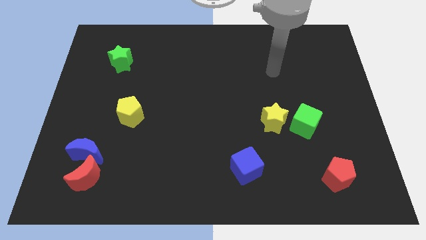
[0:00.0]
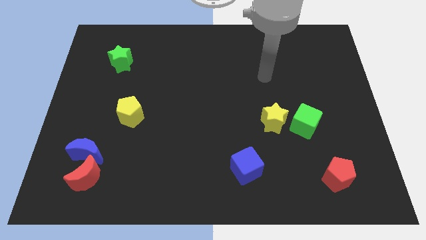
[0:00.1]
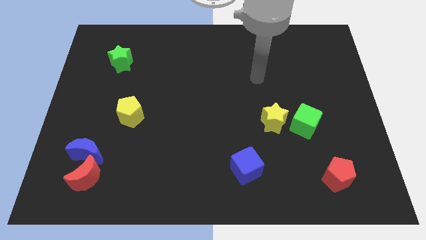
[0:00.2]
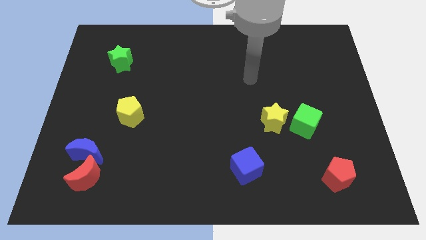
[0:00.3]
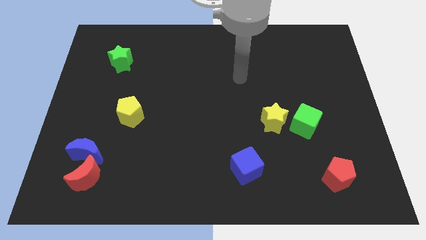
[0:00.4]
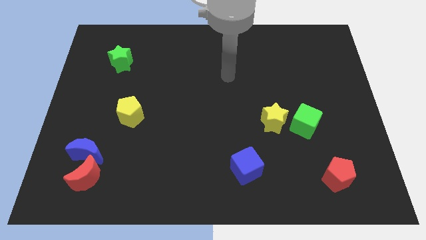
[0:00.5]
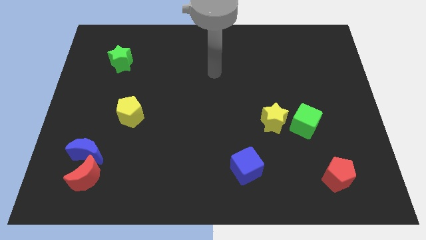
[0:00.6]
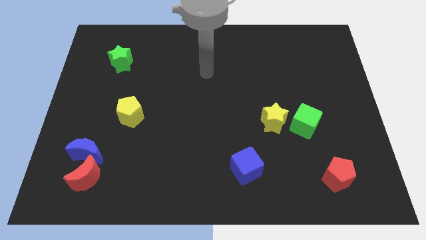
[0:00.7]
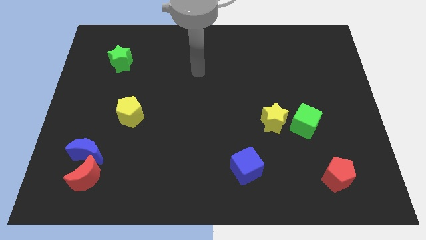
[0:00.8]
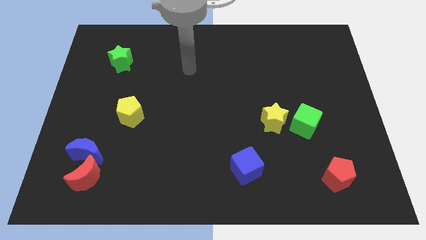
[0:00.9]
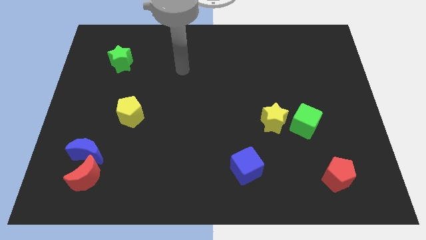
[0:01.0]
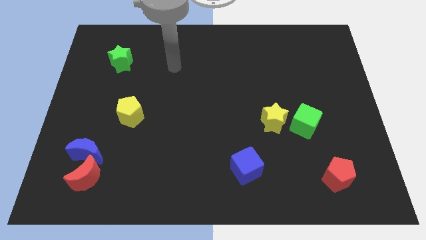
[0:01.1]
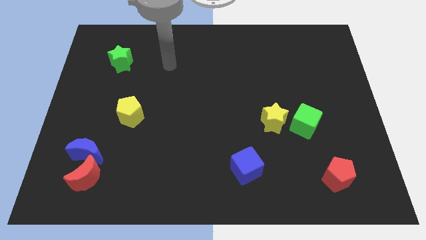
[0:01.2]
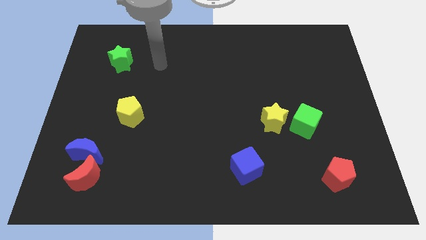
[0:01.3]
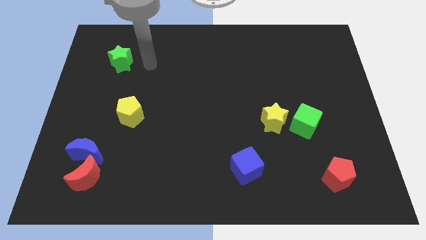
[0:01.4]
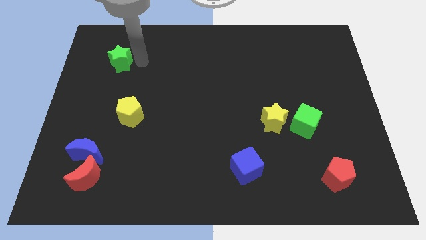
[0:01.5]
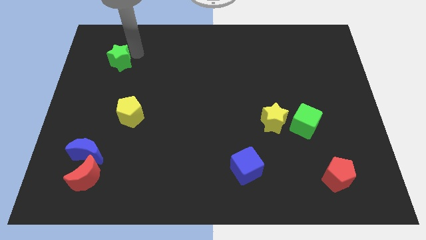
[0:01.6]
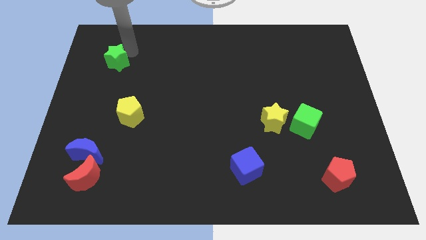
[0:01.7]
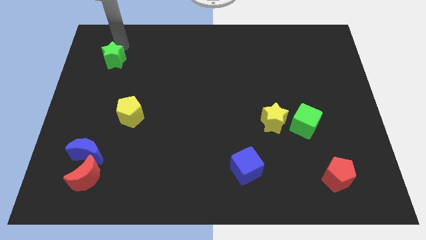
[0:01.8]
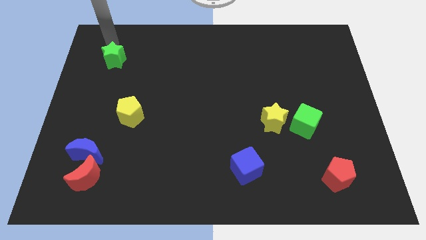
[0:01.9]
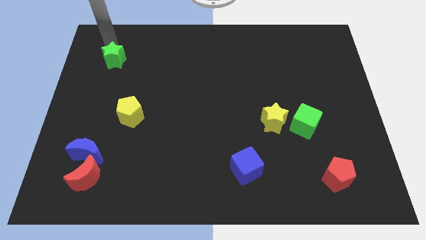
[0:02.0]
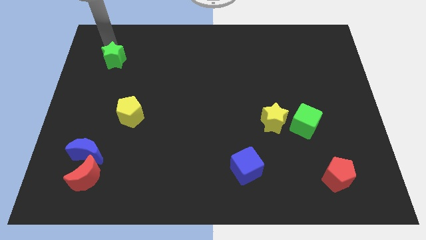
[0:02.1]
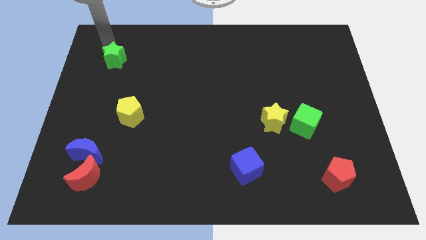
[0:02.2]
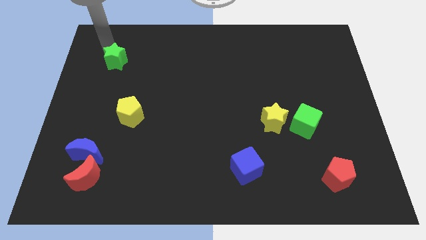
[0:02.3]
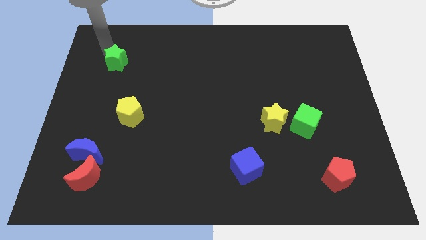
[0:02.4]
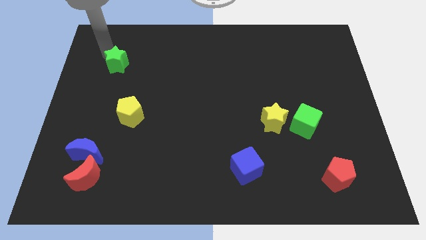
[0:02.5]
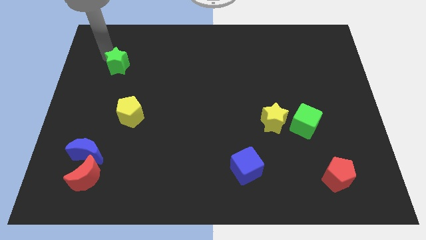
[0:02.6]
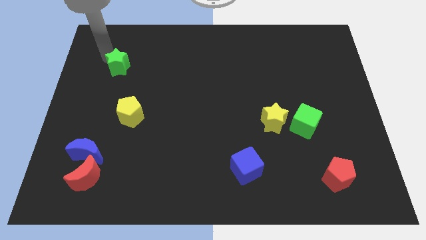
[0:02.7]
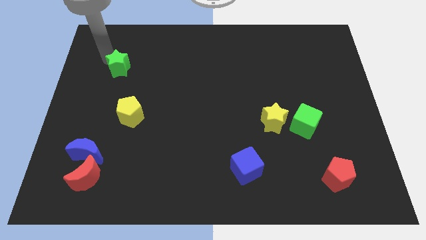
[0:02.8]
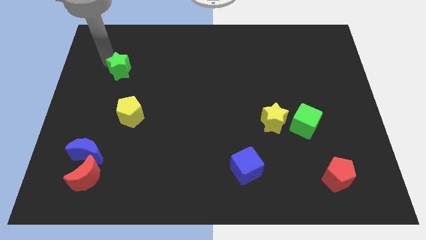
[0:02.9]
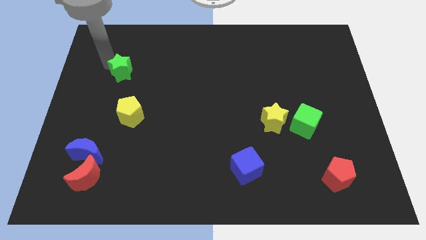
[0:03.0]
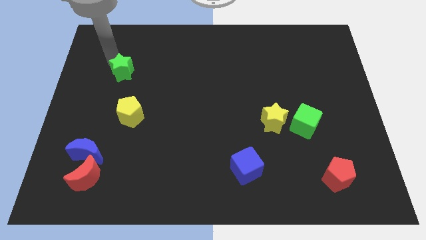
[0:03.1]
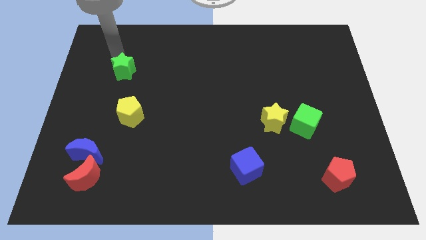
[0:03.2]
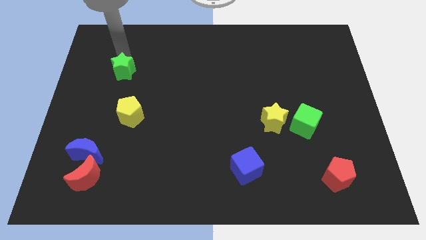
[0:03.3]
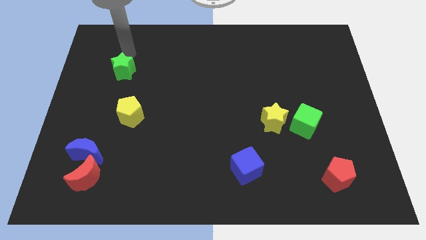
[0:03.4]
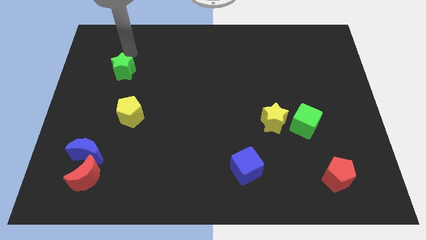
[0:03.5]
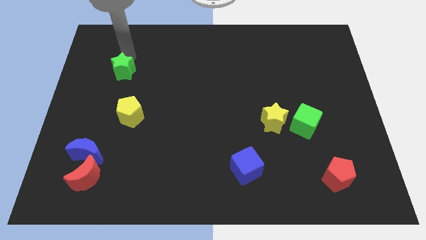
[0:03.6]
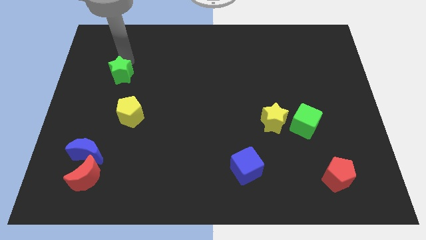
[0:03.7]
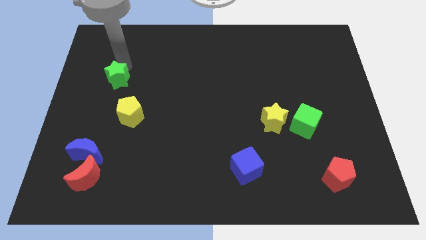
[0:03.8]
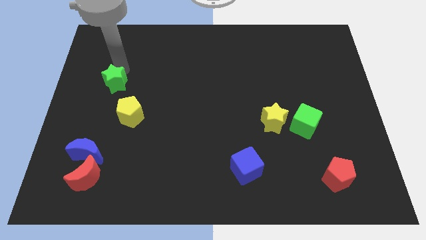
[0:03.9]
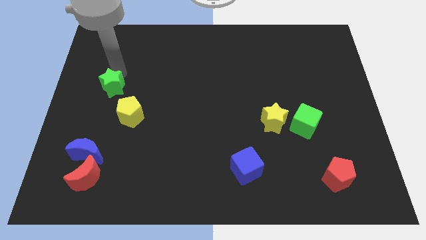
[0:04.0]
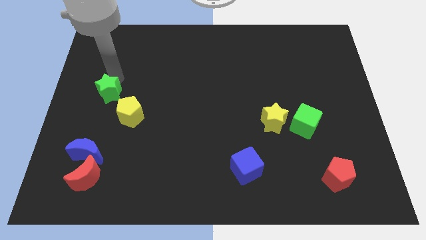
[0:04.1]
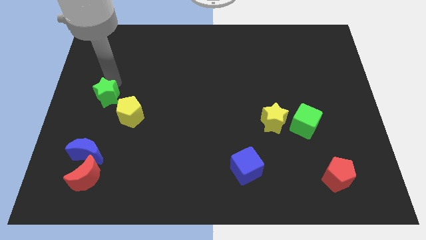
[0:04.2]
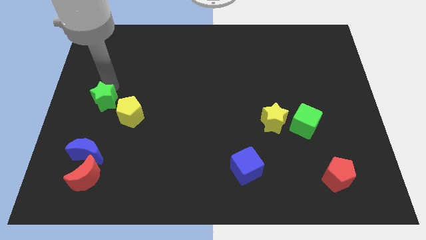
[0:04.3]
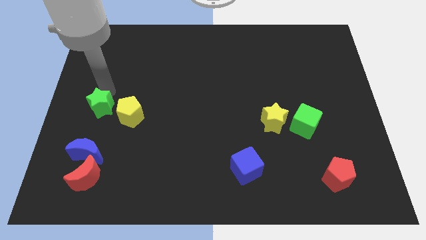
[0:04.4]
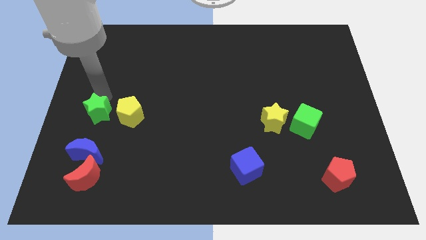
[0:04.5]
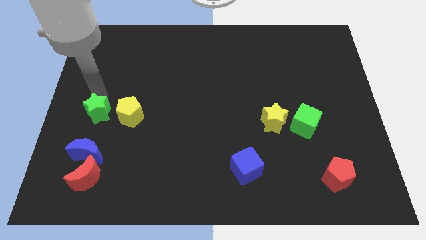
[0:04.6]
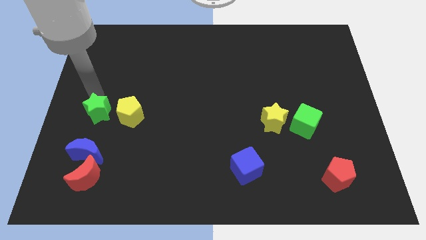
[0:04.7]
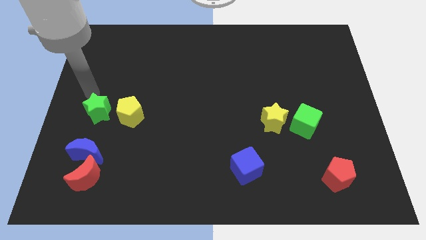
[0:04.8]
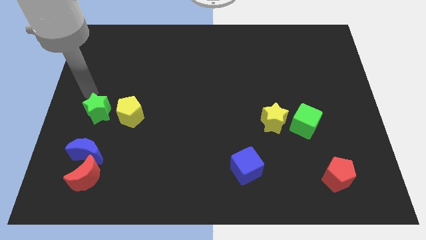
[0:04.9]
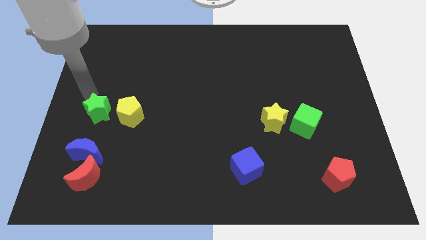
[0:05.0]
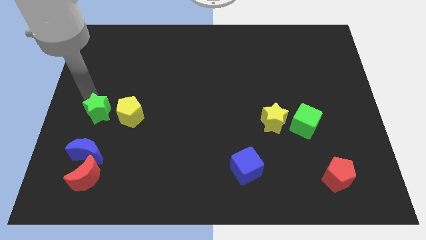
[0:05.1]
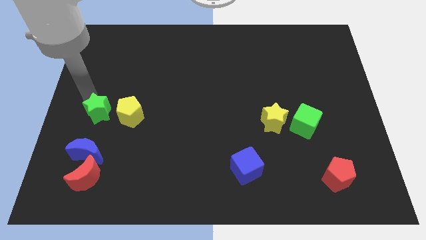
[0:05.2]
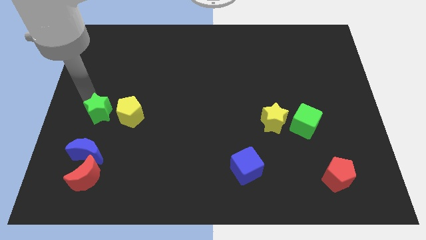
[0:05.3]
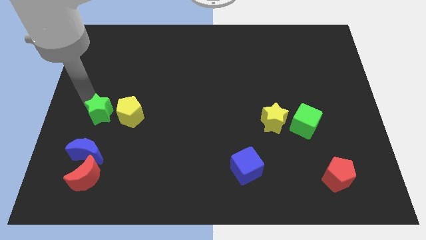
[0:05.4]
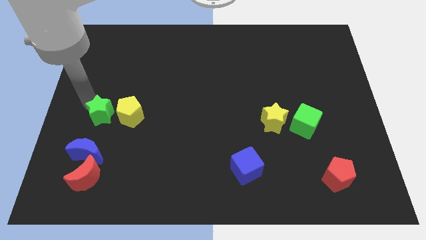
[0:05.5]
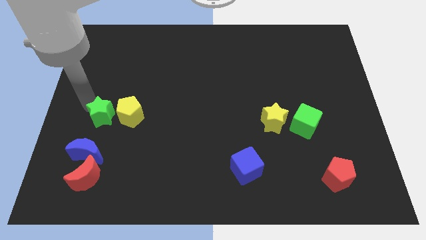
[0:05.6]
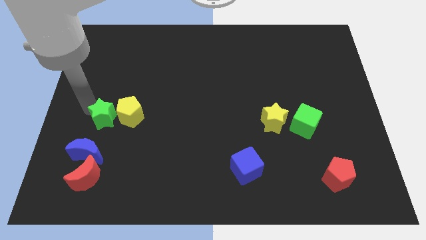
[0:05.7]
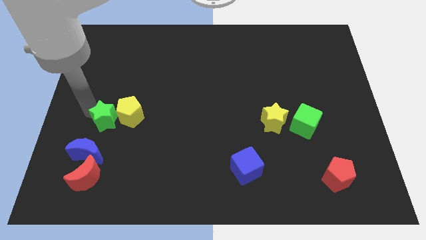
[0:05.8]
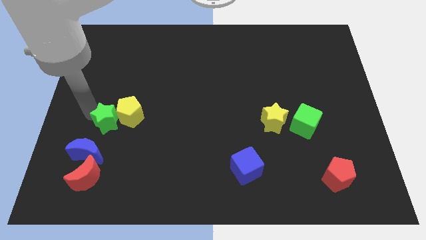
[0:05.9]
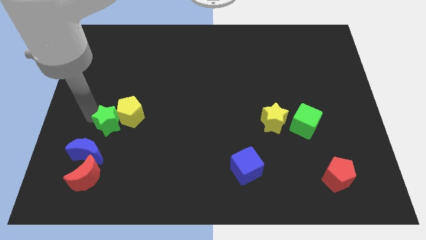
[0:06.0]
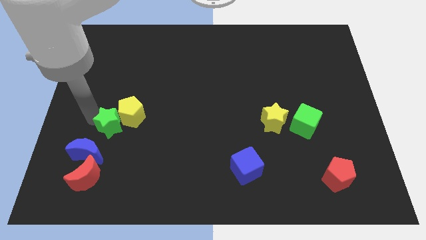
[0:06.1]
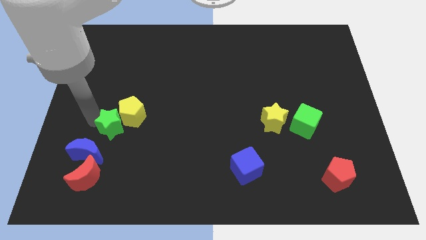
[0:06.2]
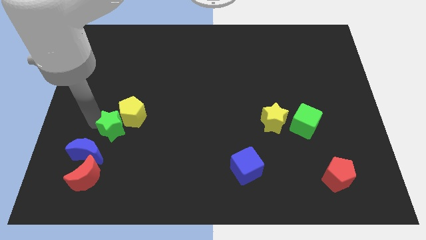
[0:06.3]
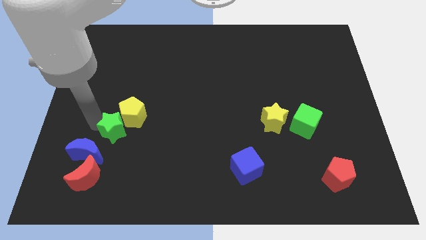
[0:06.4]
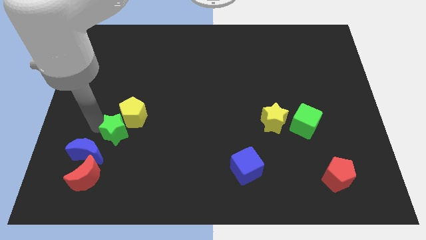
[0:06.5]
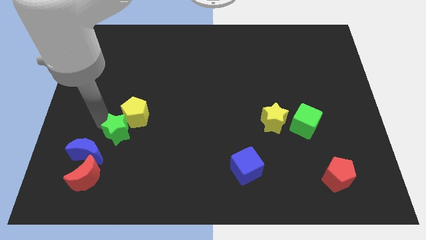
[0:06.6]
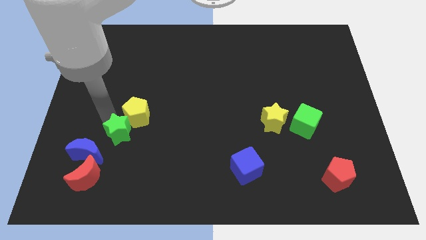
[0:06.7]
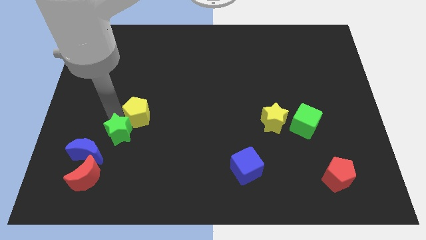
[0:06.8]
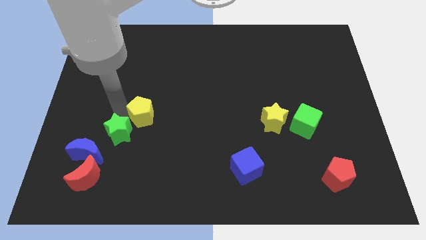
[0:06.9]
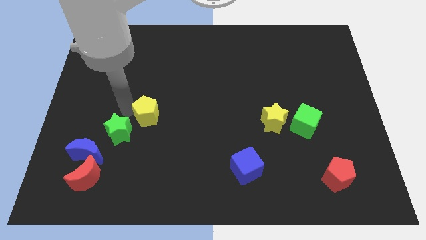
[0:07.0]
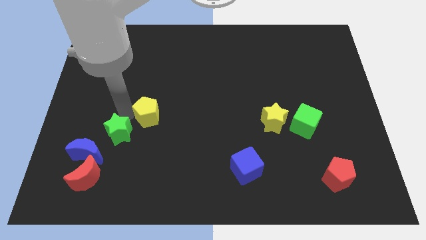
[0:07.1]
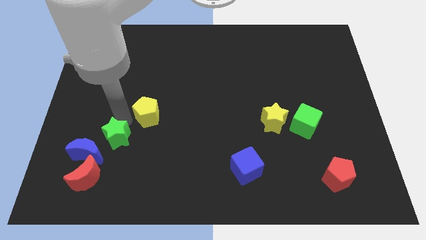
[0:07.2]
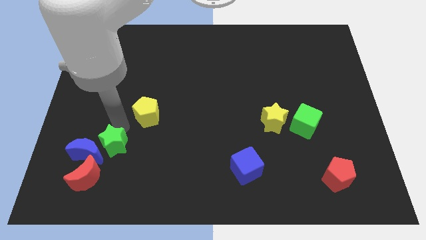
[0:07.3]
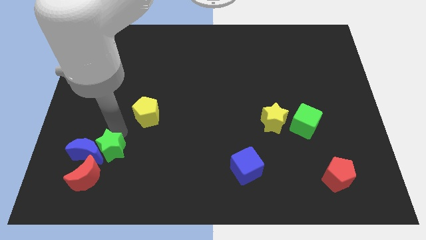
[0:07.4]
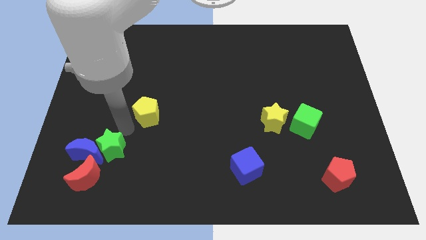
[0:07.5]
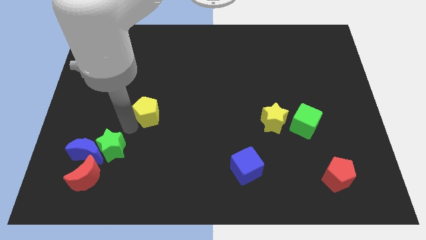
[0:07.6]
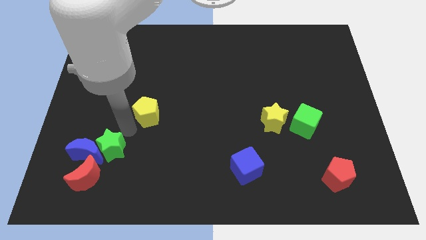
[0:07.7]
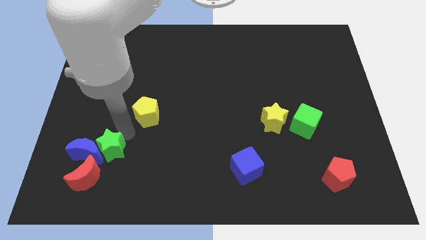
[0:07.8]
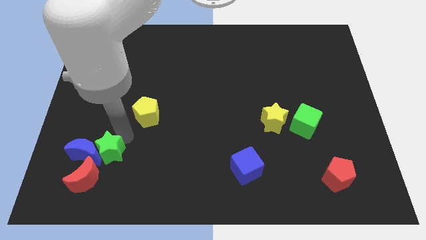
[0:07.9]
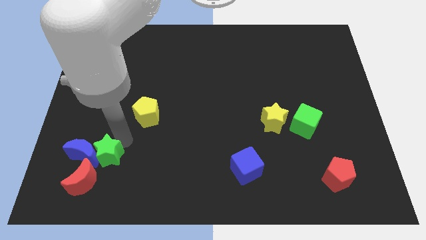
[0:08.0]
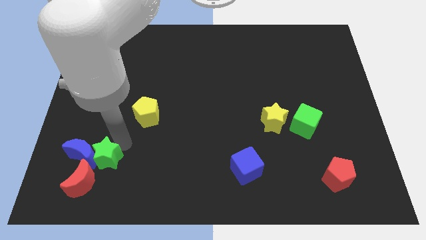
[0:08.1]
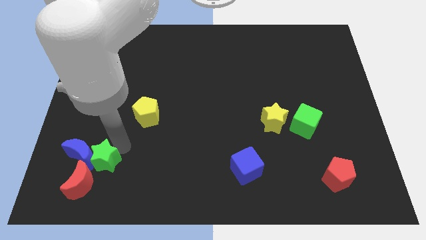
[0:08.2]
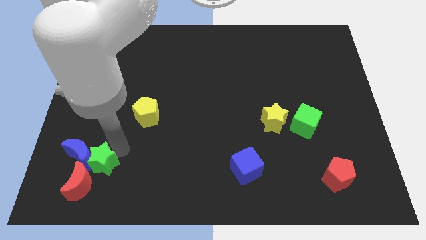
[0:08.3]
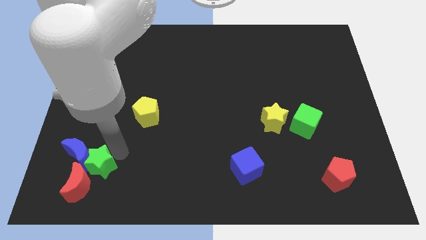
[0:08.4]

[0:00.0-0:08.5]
push the green star next to the red moon
